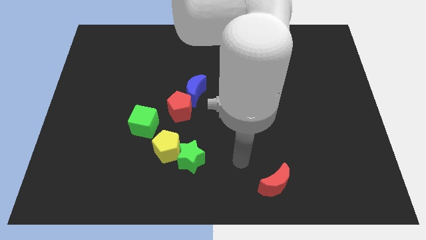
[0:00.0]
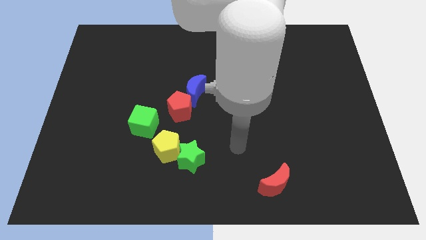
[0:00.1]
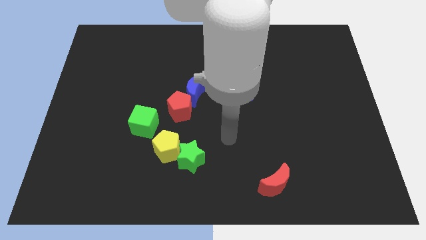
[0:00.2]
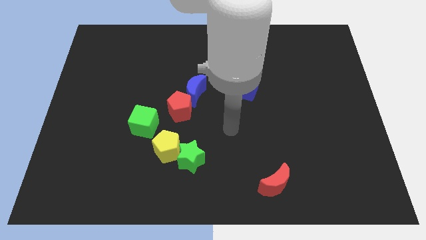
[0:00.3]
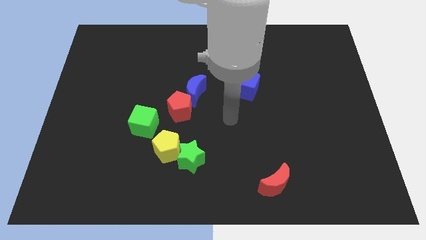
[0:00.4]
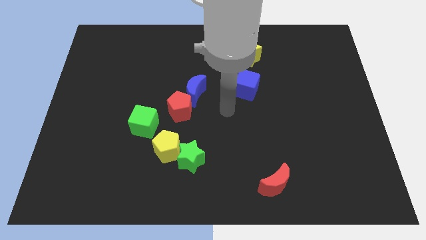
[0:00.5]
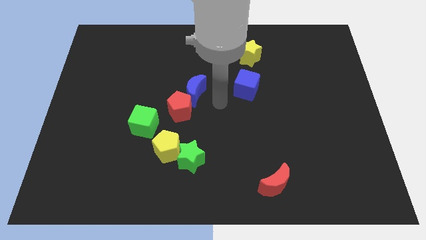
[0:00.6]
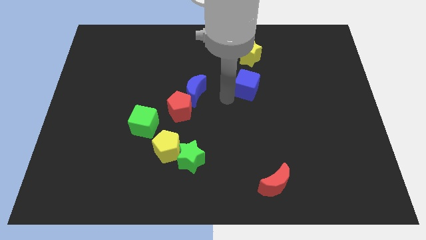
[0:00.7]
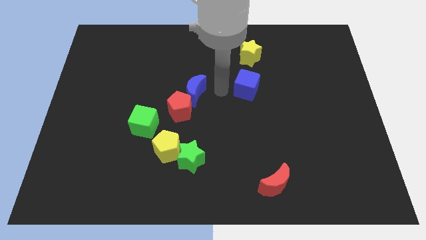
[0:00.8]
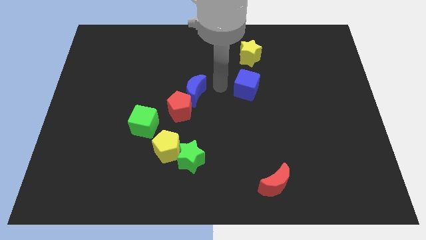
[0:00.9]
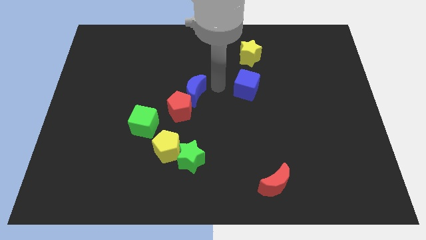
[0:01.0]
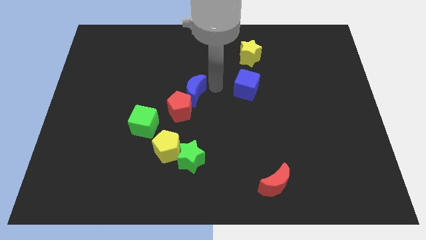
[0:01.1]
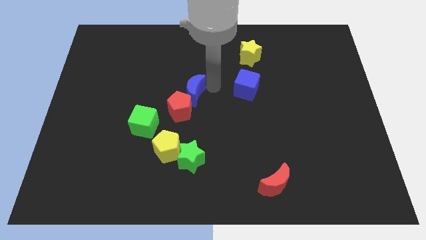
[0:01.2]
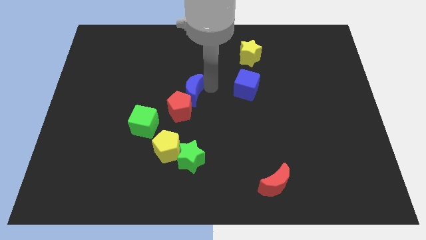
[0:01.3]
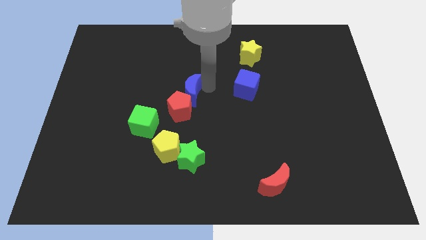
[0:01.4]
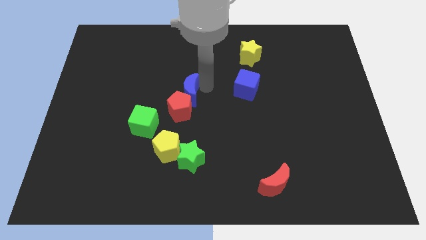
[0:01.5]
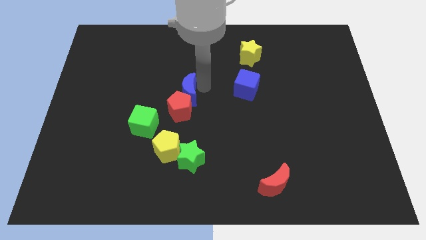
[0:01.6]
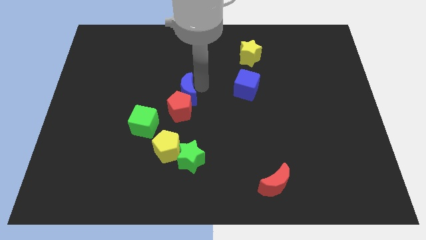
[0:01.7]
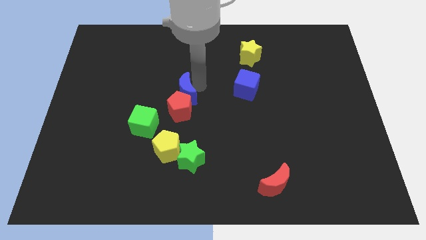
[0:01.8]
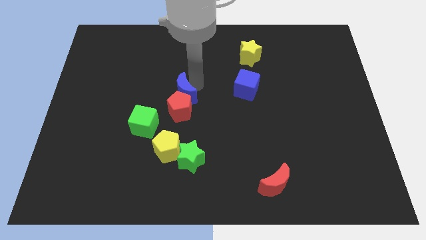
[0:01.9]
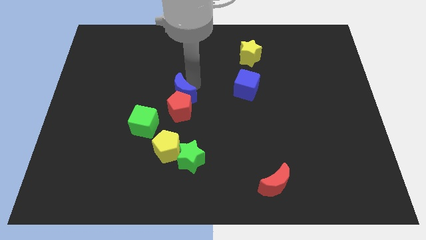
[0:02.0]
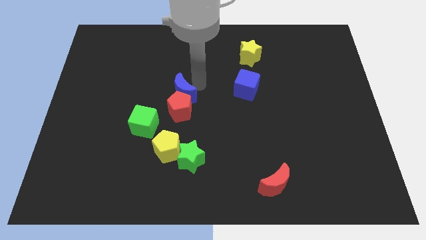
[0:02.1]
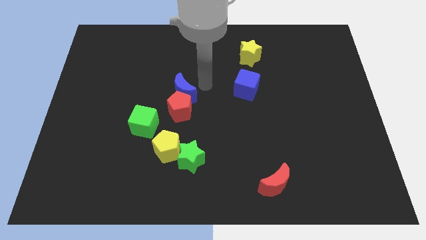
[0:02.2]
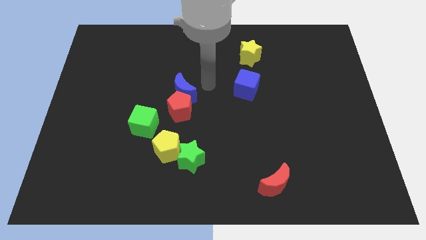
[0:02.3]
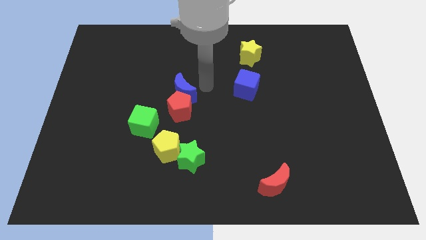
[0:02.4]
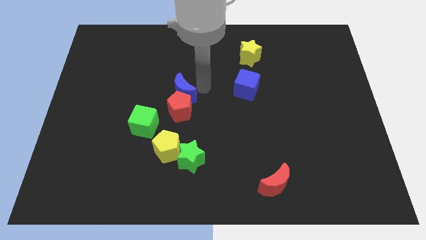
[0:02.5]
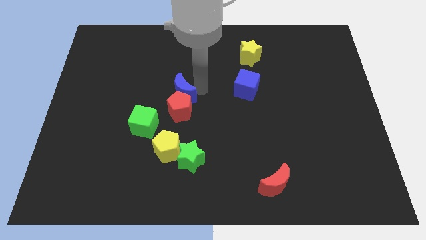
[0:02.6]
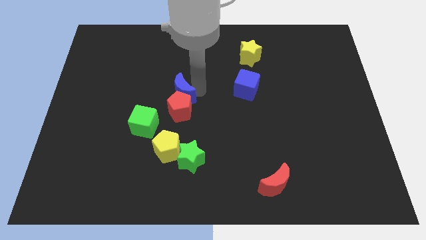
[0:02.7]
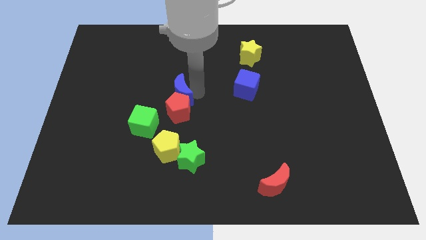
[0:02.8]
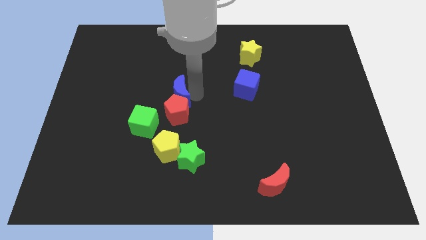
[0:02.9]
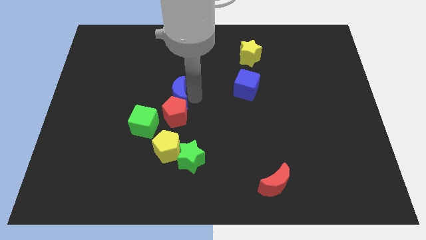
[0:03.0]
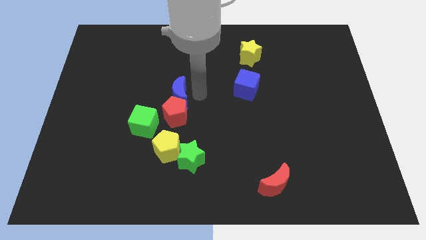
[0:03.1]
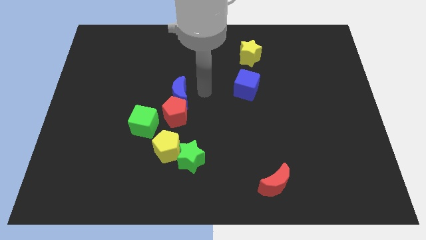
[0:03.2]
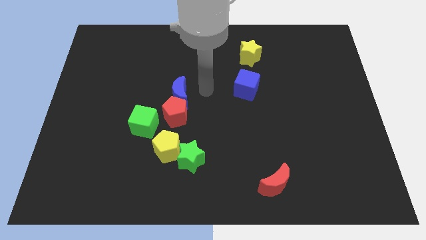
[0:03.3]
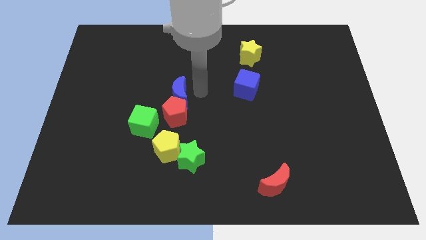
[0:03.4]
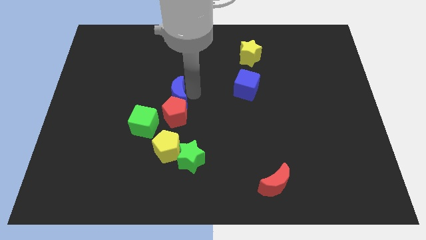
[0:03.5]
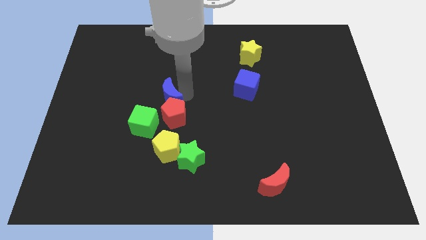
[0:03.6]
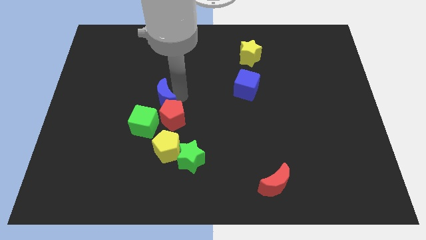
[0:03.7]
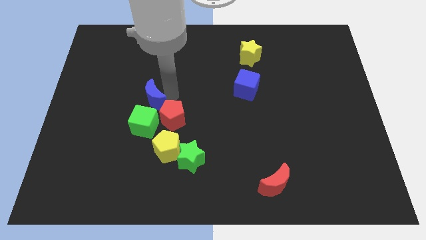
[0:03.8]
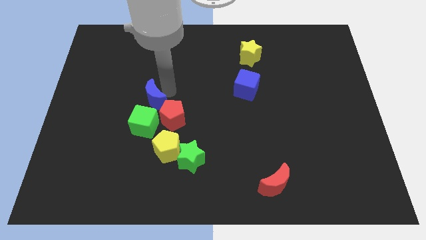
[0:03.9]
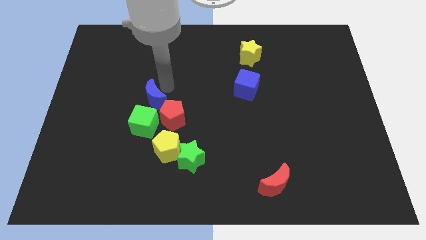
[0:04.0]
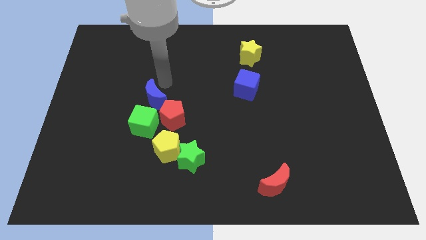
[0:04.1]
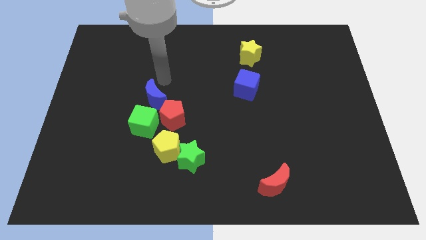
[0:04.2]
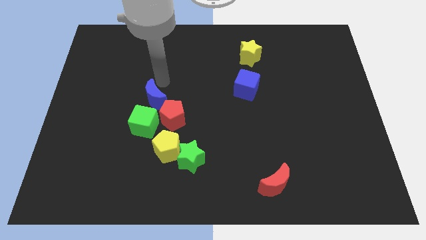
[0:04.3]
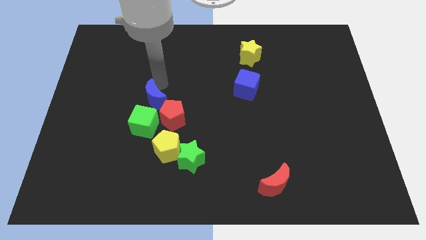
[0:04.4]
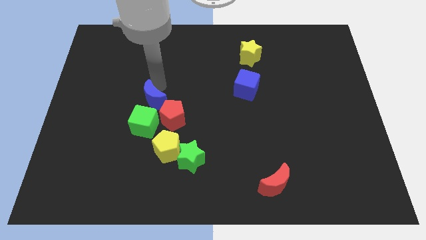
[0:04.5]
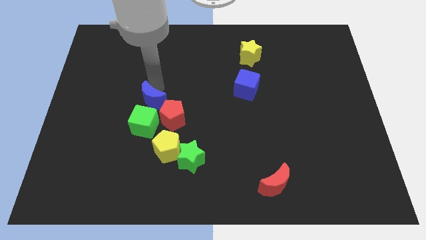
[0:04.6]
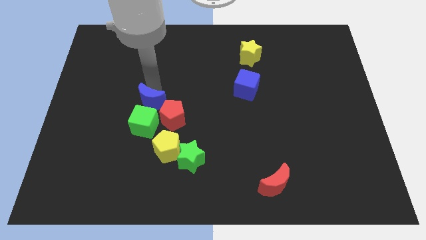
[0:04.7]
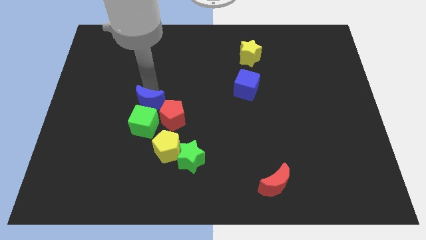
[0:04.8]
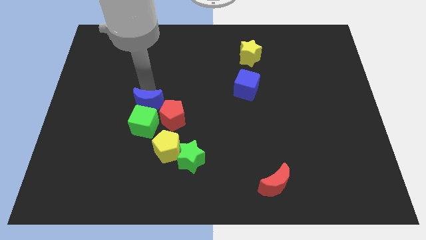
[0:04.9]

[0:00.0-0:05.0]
push the blue moon next to the green cube

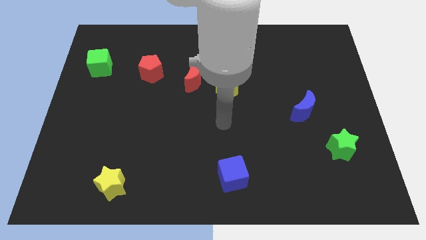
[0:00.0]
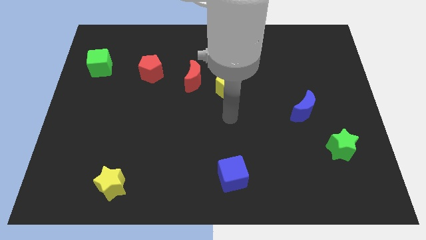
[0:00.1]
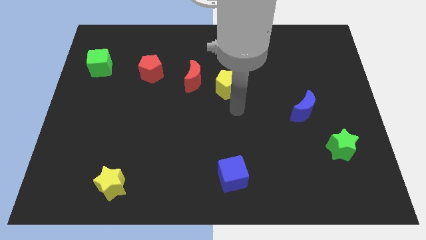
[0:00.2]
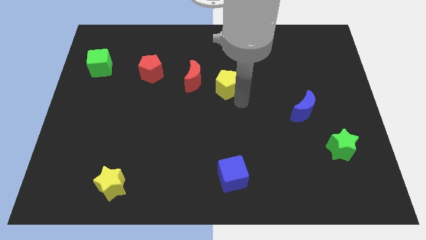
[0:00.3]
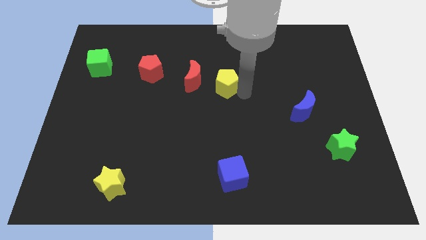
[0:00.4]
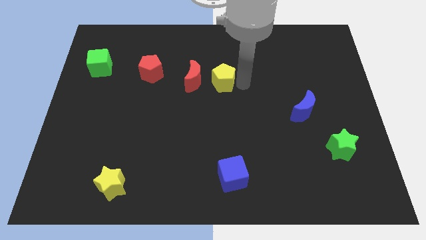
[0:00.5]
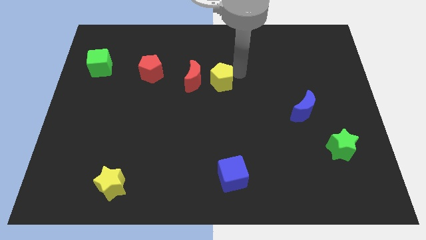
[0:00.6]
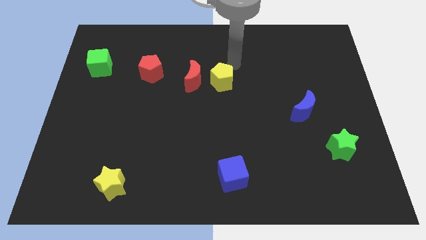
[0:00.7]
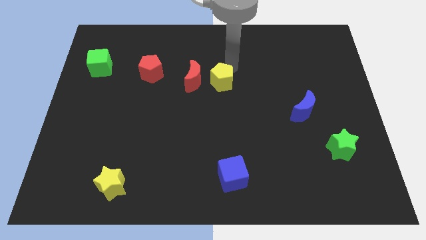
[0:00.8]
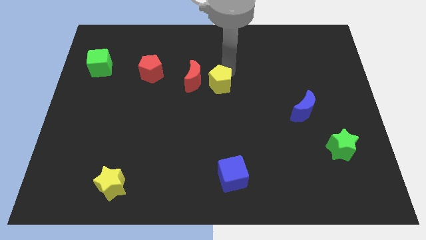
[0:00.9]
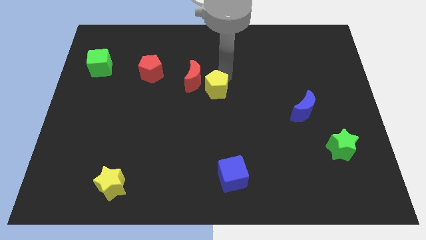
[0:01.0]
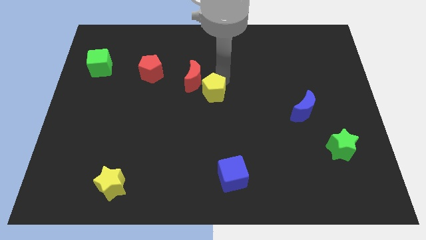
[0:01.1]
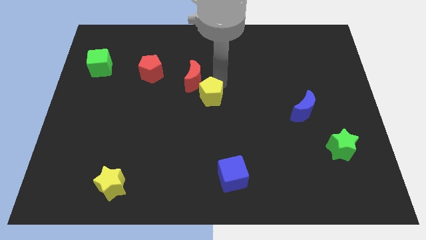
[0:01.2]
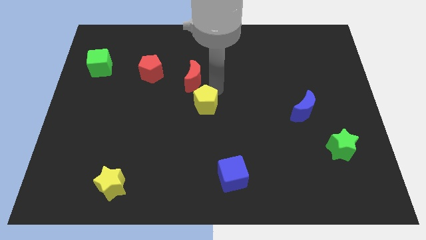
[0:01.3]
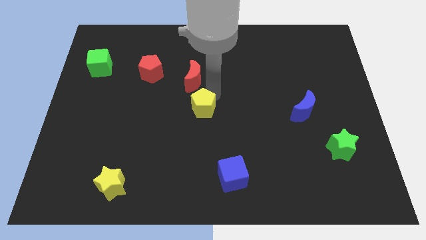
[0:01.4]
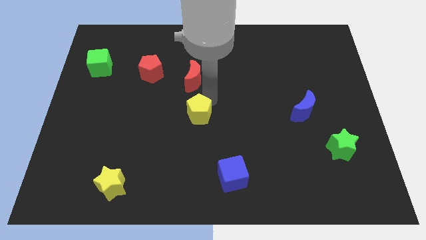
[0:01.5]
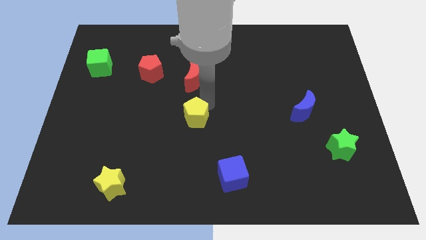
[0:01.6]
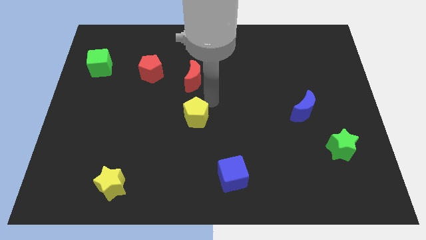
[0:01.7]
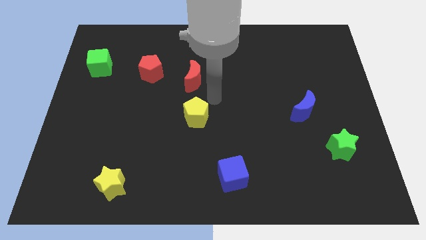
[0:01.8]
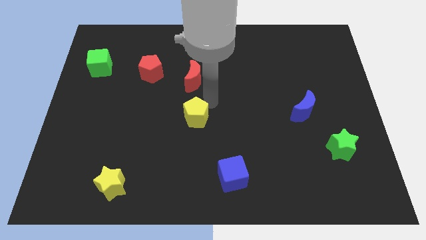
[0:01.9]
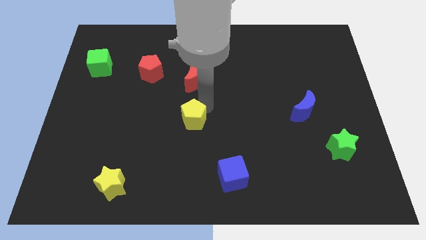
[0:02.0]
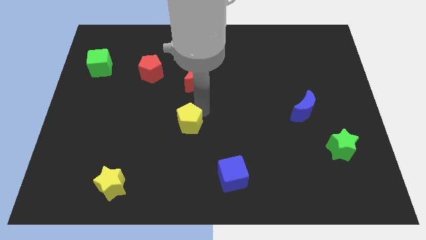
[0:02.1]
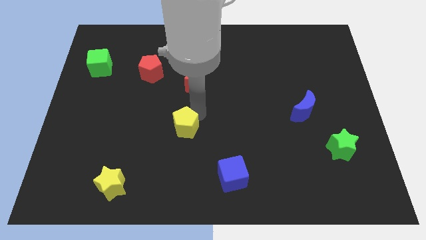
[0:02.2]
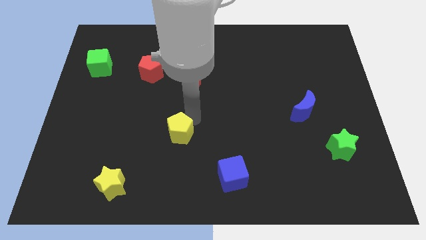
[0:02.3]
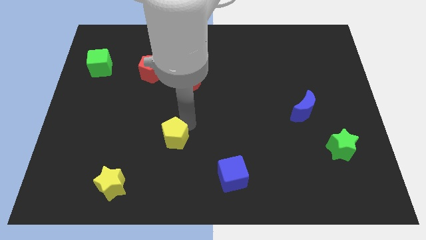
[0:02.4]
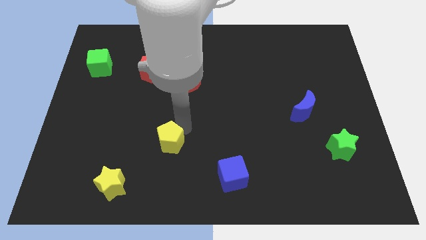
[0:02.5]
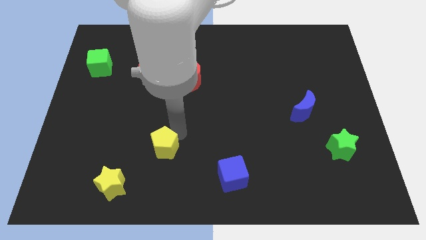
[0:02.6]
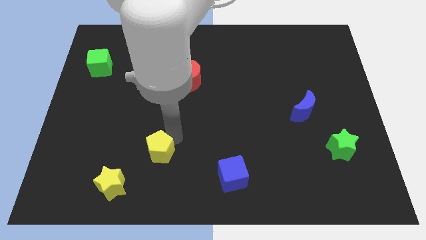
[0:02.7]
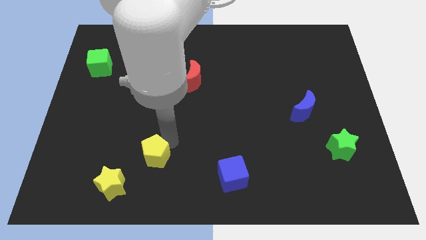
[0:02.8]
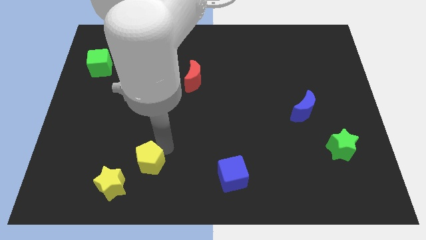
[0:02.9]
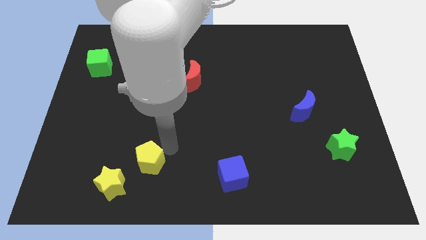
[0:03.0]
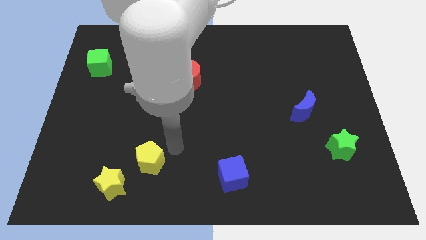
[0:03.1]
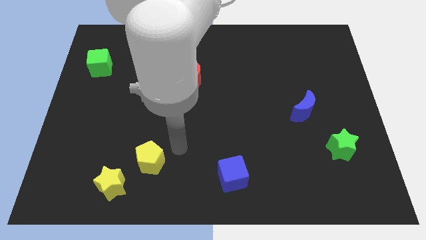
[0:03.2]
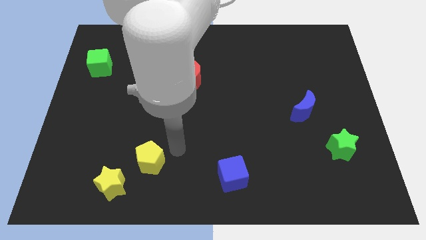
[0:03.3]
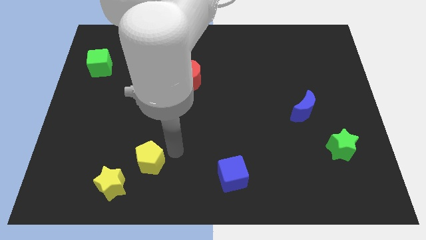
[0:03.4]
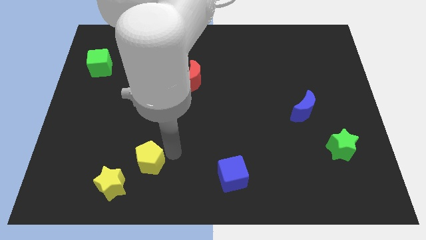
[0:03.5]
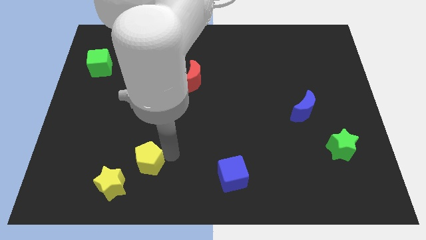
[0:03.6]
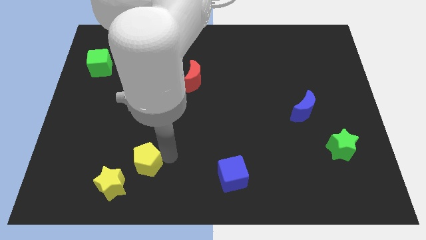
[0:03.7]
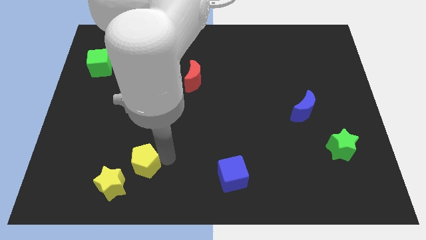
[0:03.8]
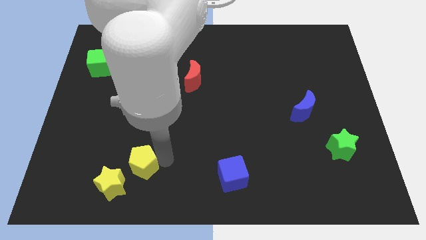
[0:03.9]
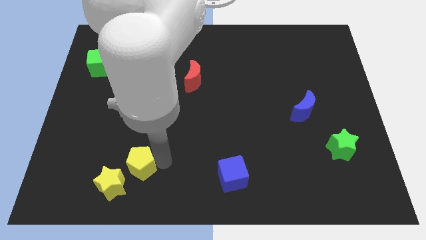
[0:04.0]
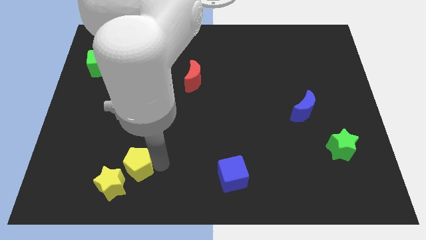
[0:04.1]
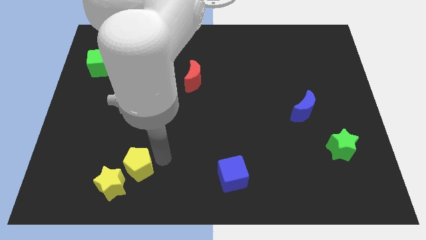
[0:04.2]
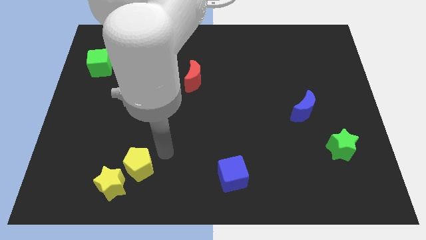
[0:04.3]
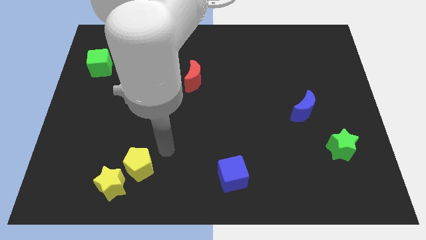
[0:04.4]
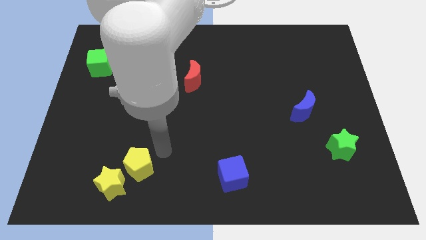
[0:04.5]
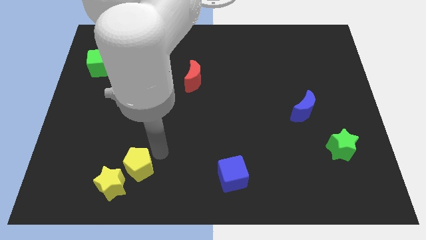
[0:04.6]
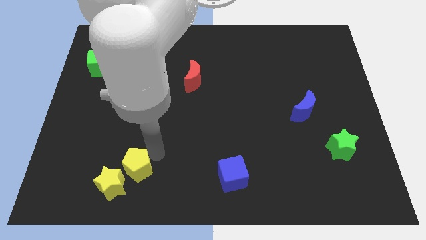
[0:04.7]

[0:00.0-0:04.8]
push the yellow pentagon close to the yellow star
